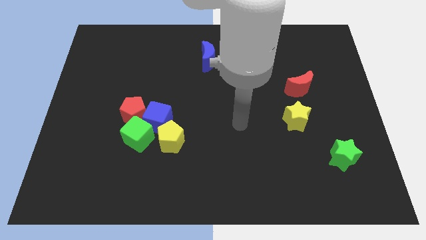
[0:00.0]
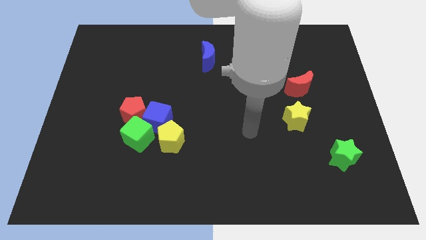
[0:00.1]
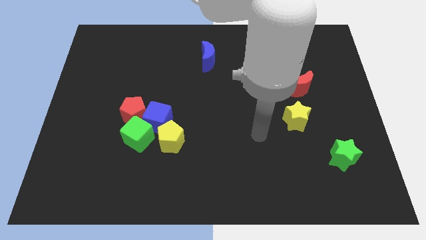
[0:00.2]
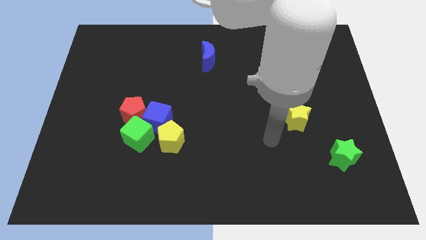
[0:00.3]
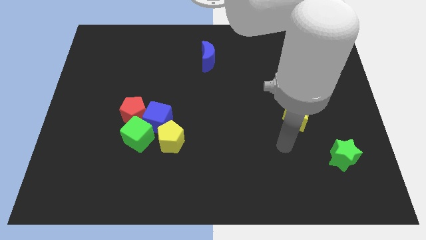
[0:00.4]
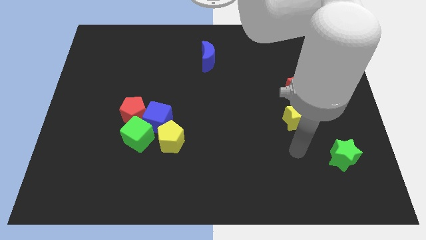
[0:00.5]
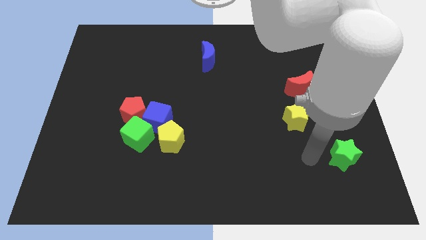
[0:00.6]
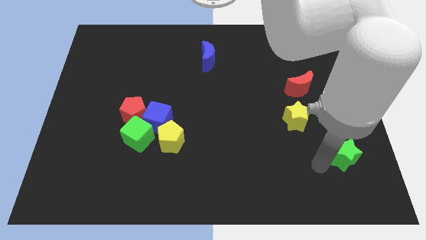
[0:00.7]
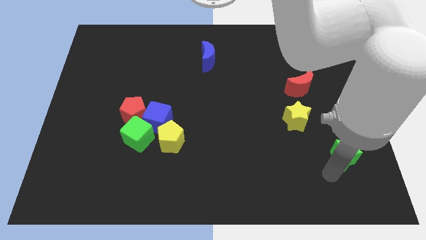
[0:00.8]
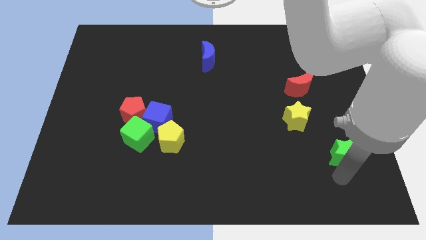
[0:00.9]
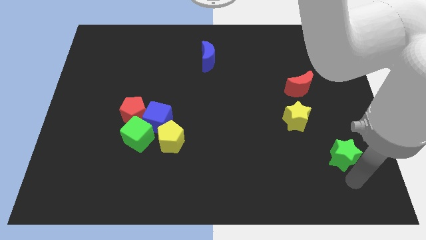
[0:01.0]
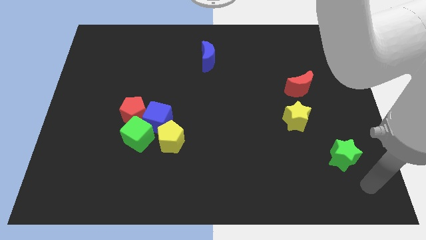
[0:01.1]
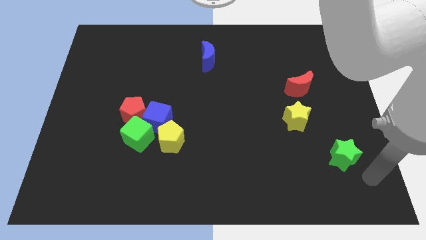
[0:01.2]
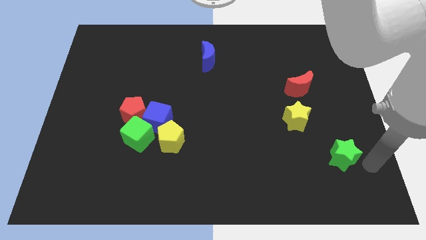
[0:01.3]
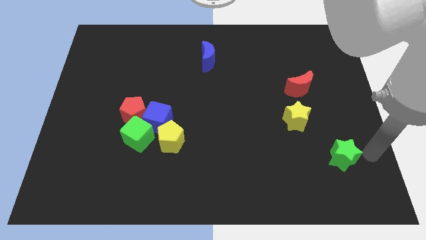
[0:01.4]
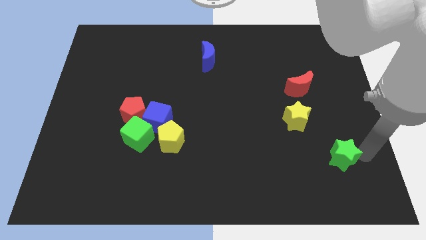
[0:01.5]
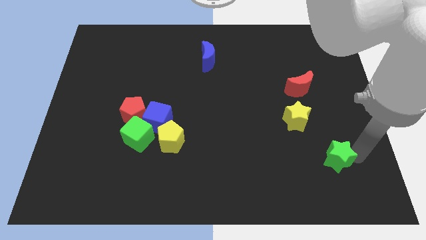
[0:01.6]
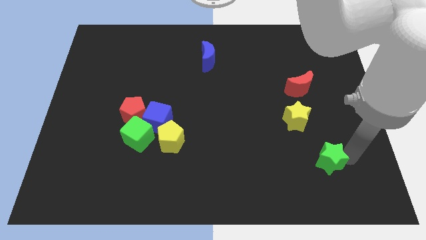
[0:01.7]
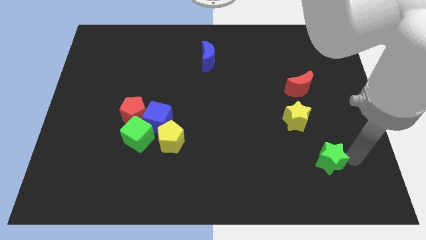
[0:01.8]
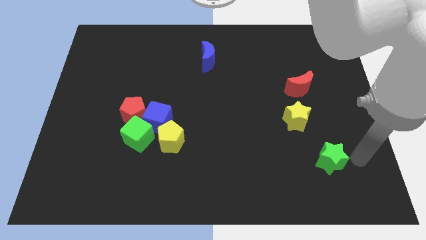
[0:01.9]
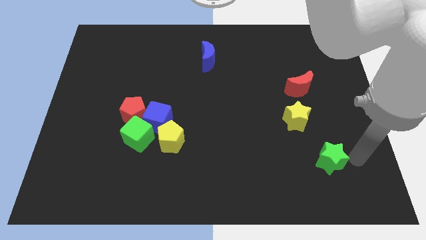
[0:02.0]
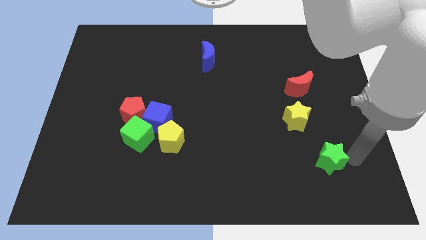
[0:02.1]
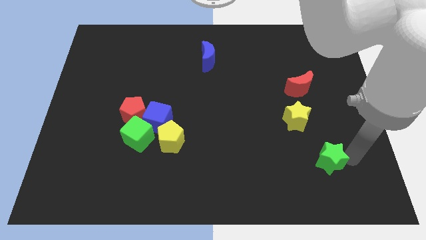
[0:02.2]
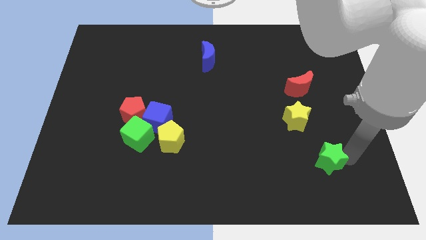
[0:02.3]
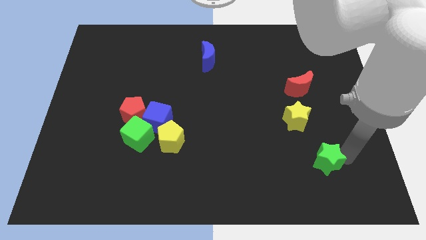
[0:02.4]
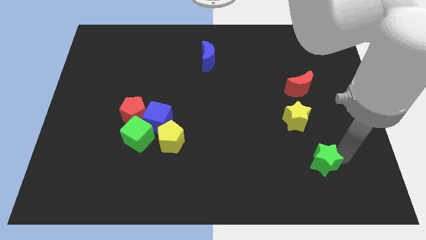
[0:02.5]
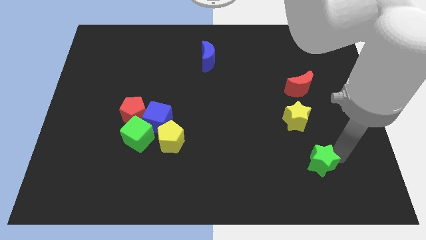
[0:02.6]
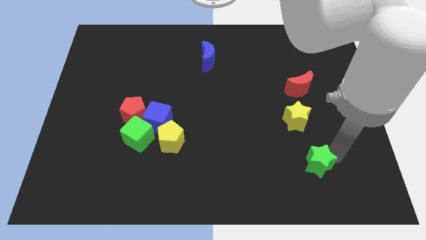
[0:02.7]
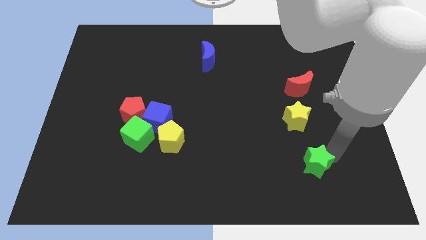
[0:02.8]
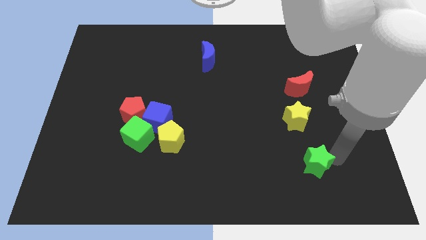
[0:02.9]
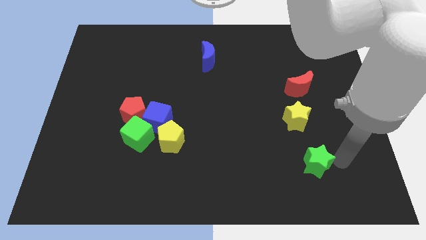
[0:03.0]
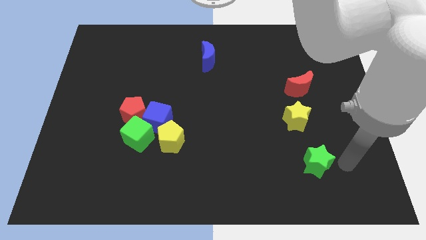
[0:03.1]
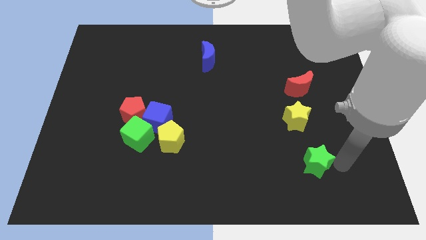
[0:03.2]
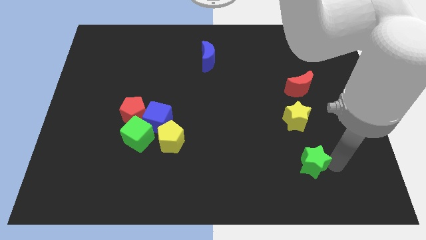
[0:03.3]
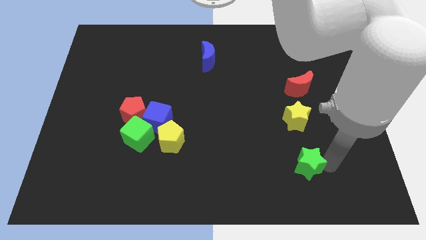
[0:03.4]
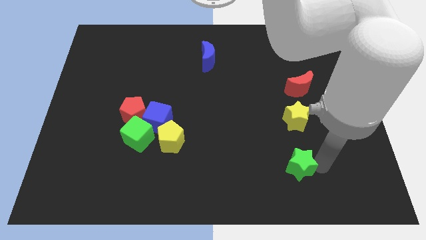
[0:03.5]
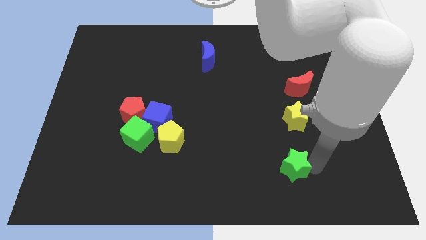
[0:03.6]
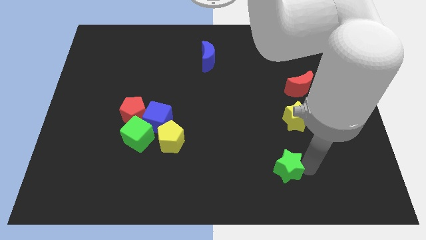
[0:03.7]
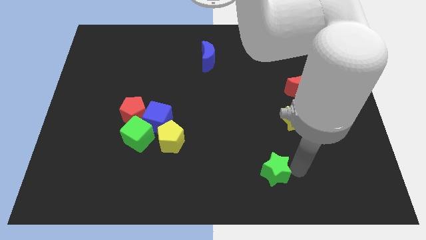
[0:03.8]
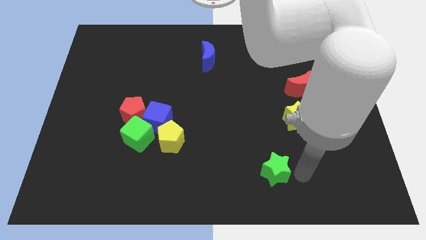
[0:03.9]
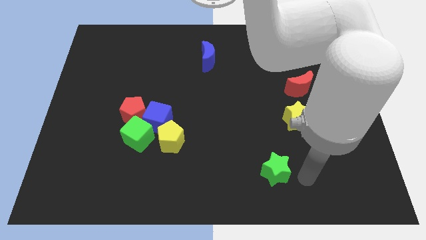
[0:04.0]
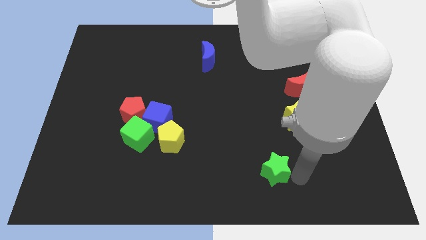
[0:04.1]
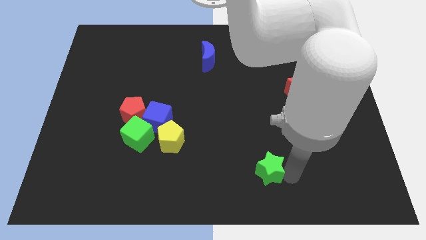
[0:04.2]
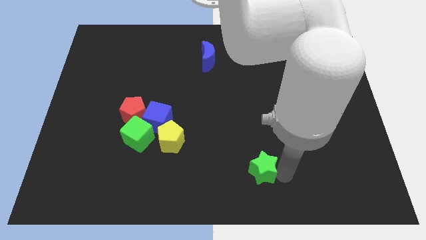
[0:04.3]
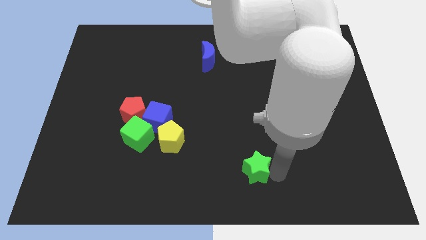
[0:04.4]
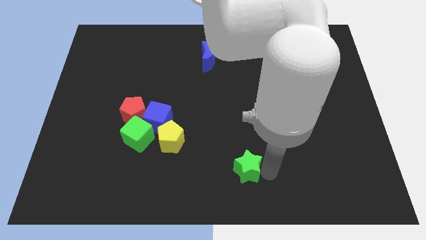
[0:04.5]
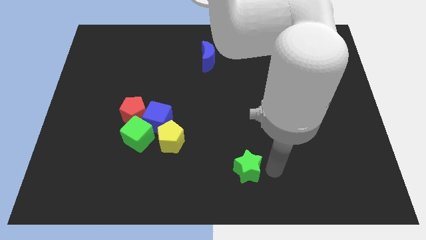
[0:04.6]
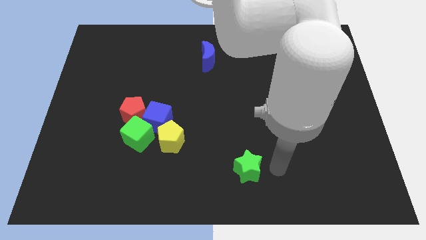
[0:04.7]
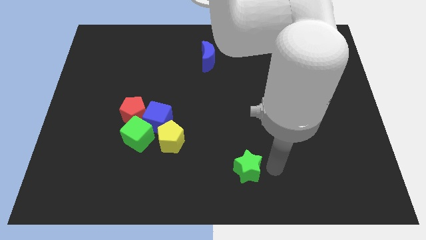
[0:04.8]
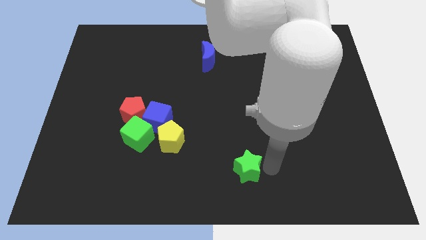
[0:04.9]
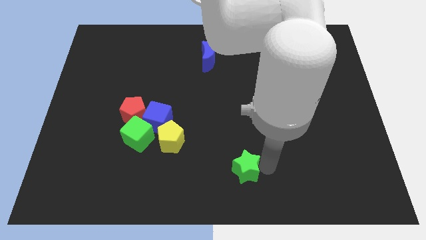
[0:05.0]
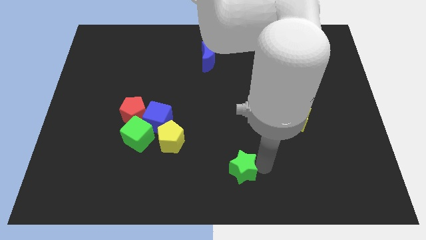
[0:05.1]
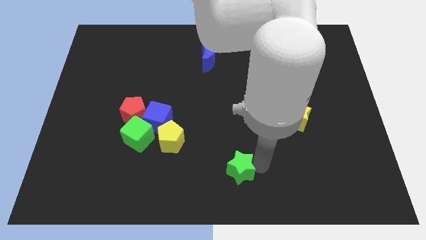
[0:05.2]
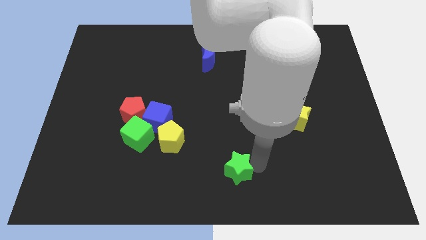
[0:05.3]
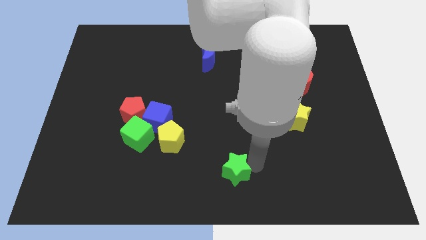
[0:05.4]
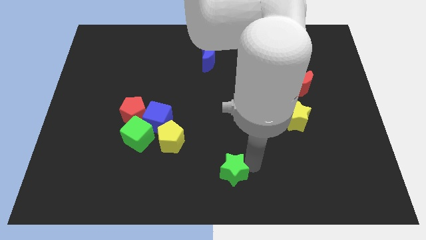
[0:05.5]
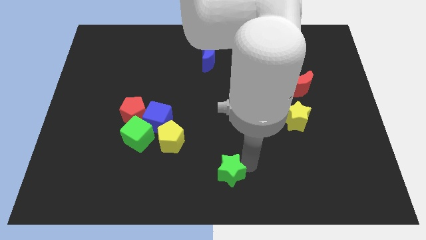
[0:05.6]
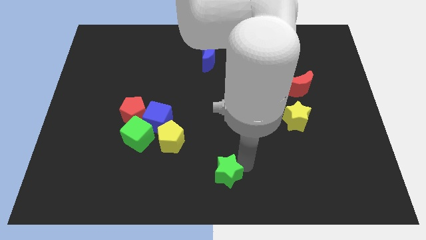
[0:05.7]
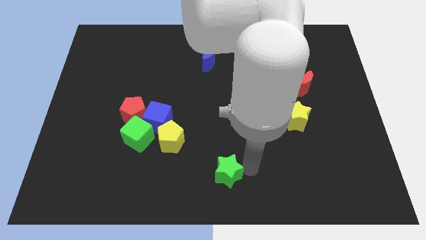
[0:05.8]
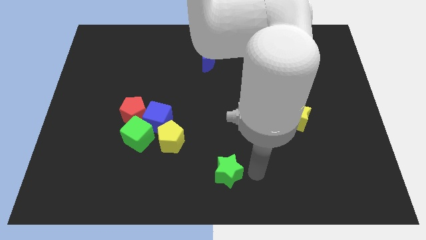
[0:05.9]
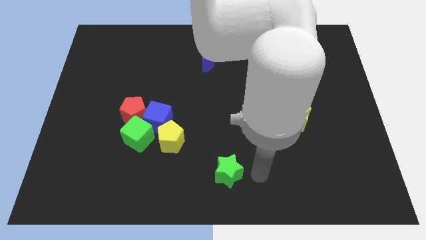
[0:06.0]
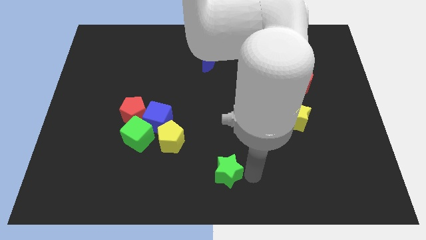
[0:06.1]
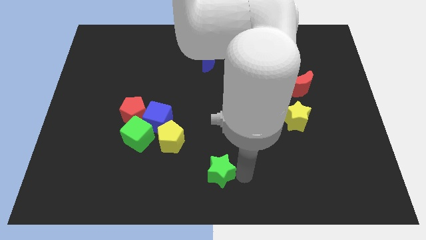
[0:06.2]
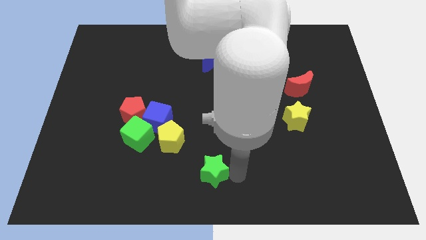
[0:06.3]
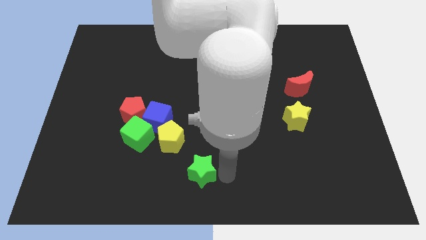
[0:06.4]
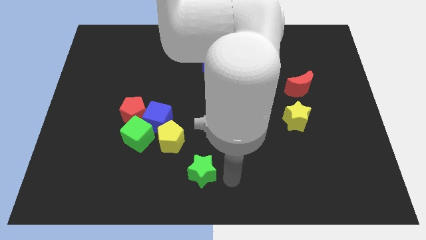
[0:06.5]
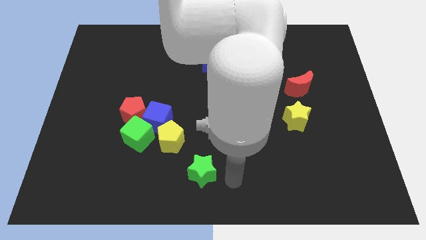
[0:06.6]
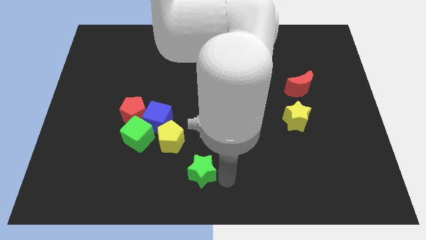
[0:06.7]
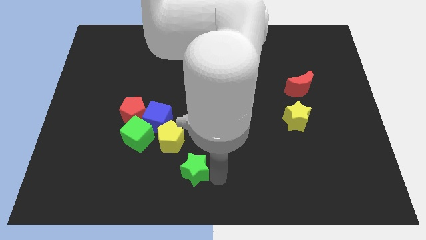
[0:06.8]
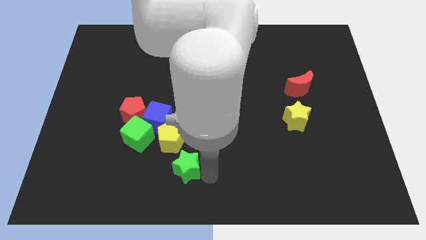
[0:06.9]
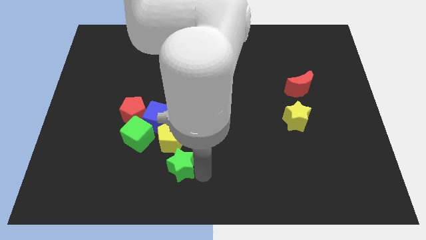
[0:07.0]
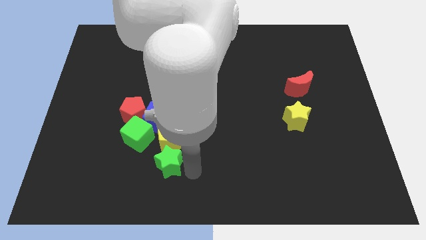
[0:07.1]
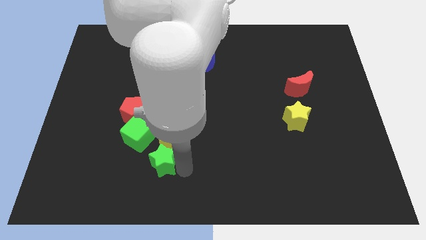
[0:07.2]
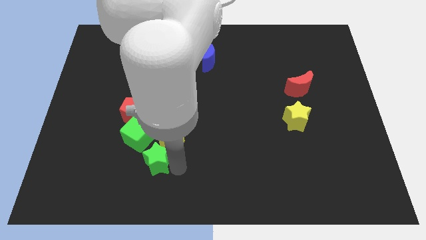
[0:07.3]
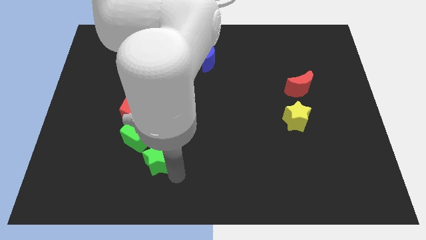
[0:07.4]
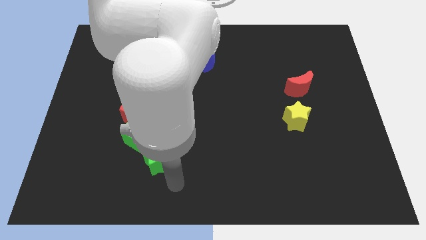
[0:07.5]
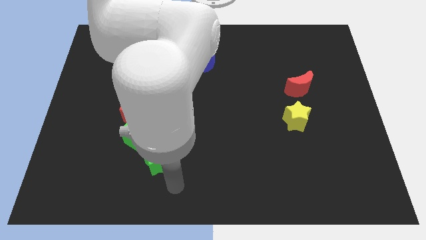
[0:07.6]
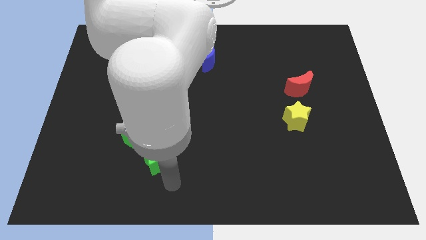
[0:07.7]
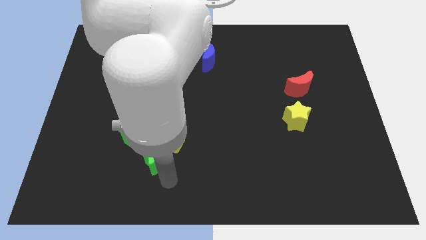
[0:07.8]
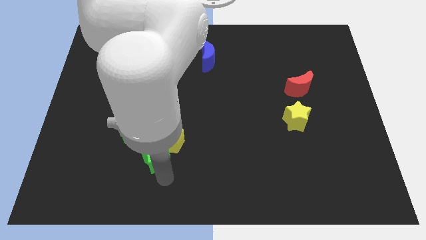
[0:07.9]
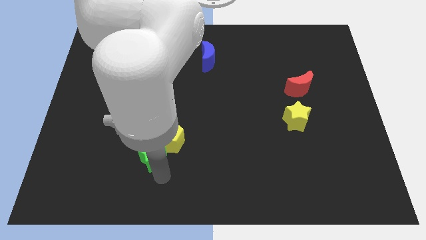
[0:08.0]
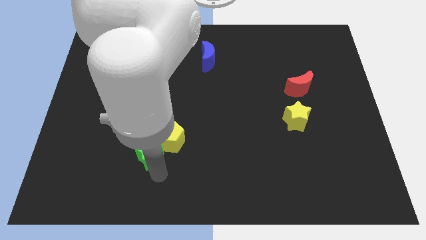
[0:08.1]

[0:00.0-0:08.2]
move the green star next to the green cube
